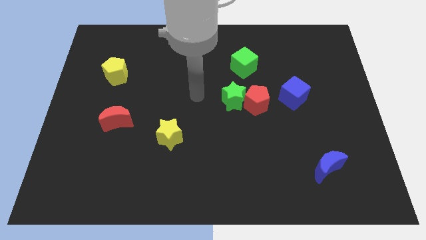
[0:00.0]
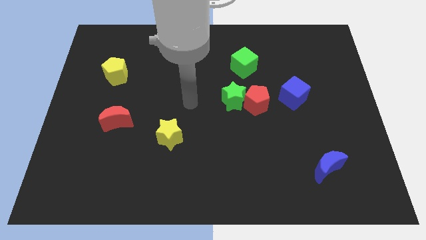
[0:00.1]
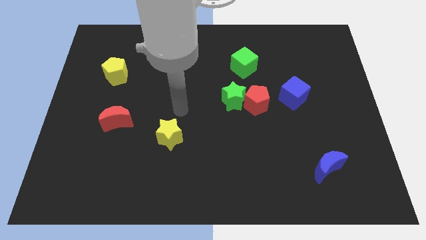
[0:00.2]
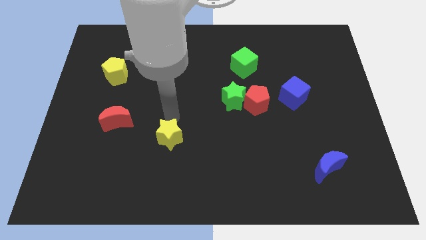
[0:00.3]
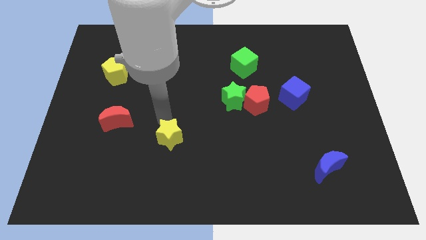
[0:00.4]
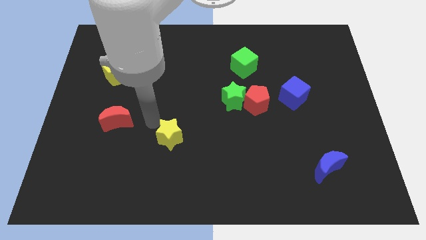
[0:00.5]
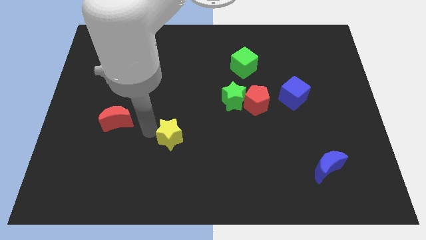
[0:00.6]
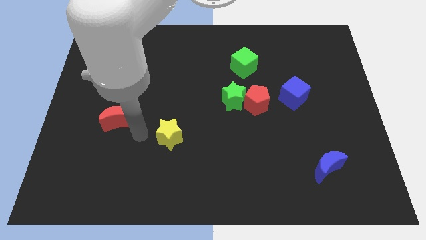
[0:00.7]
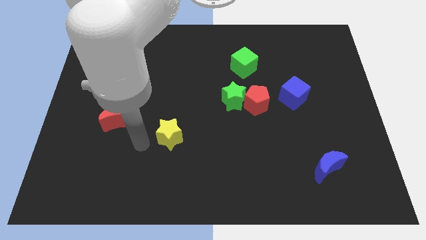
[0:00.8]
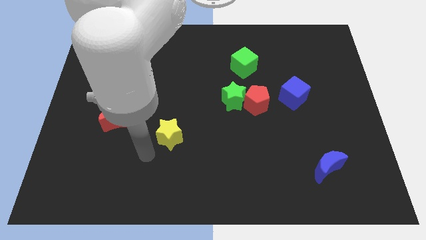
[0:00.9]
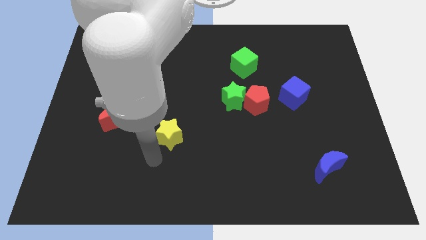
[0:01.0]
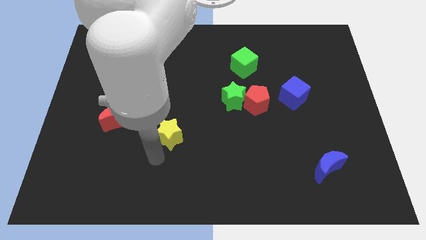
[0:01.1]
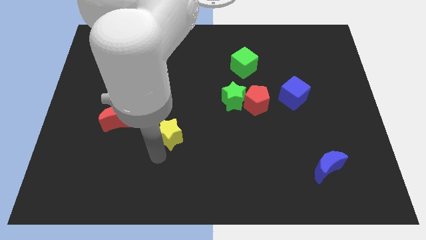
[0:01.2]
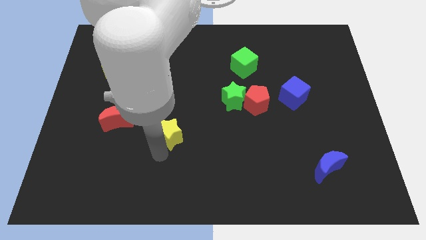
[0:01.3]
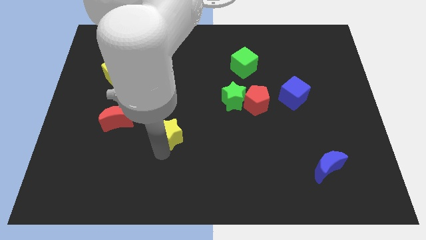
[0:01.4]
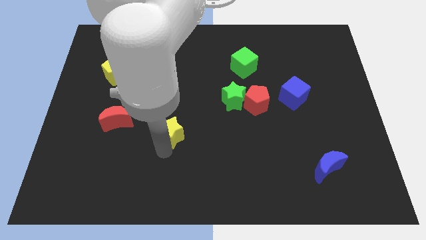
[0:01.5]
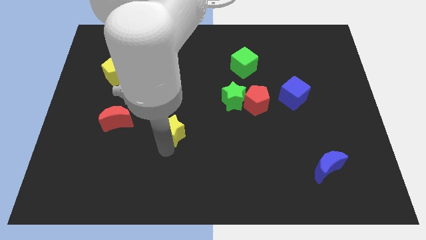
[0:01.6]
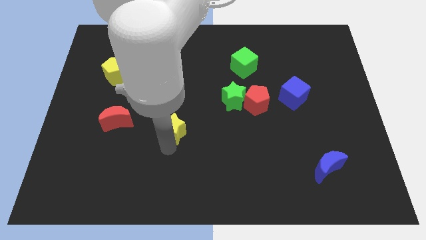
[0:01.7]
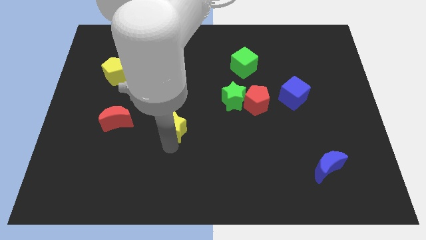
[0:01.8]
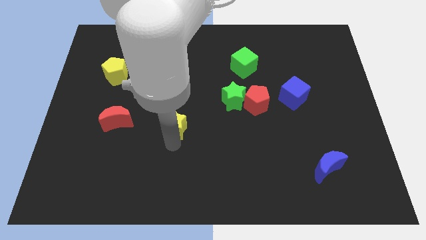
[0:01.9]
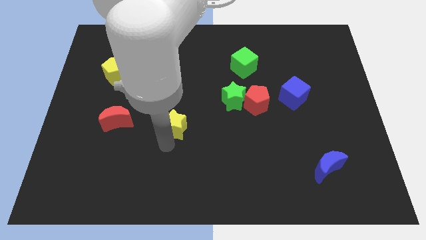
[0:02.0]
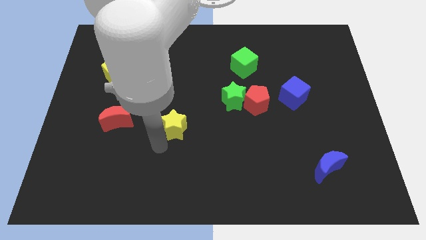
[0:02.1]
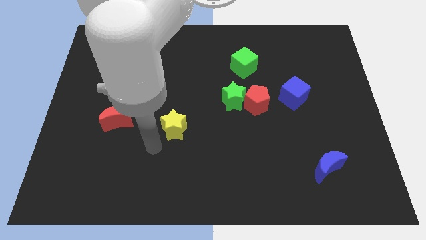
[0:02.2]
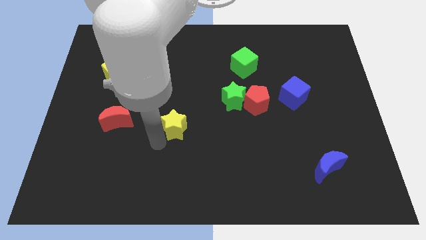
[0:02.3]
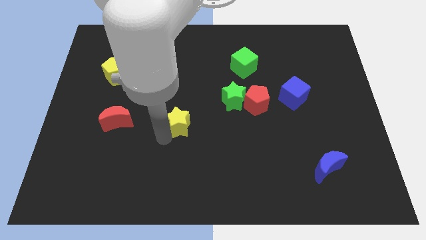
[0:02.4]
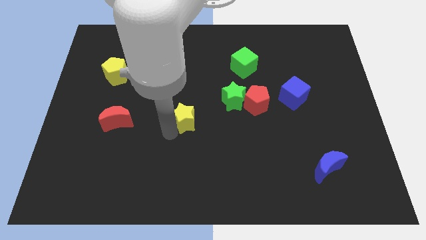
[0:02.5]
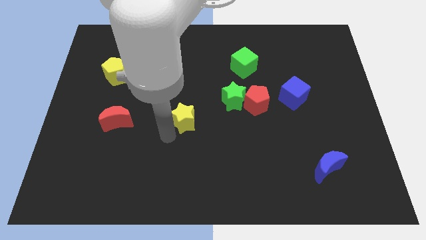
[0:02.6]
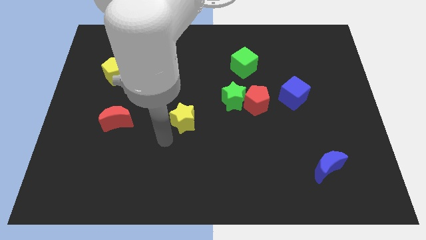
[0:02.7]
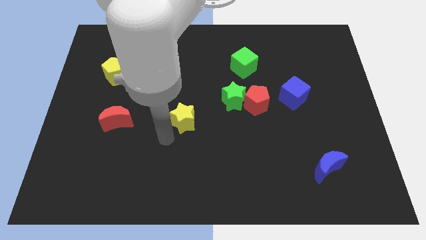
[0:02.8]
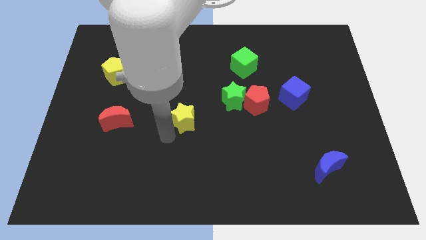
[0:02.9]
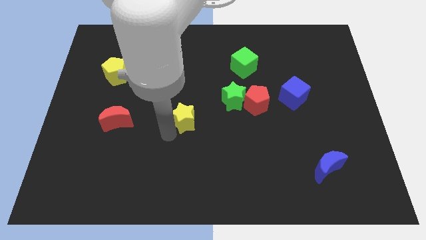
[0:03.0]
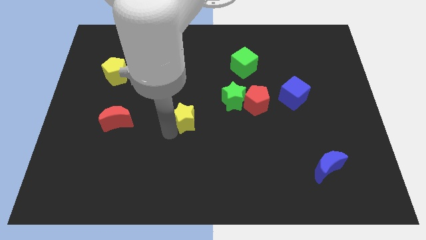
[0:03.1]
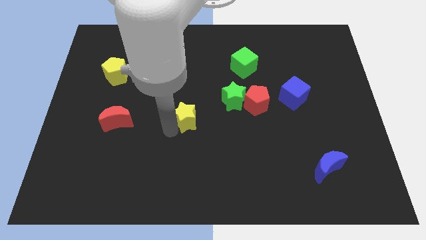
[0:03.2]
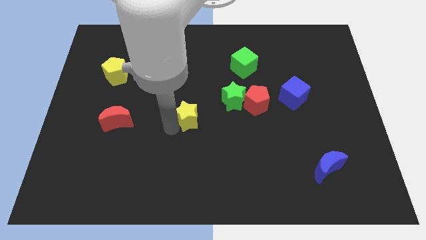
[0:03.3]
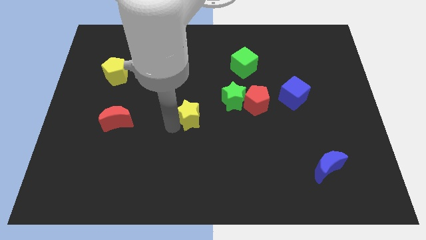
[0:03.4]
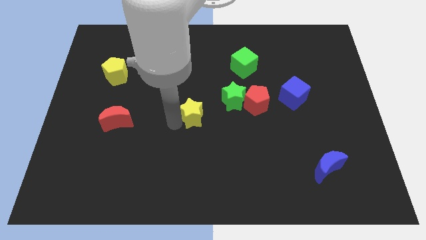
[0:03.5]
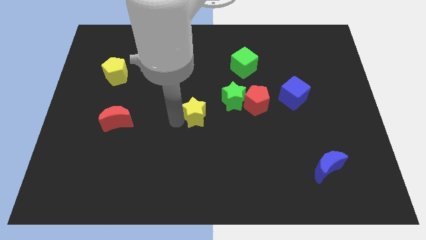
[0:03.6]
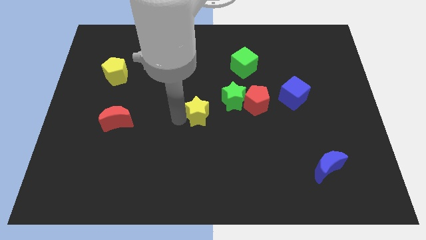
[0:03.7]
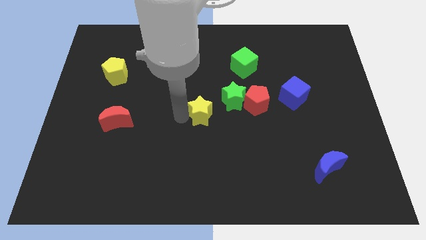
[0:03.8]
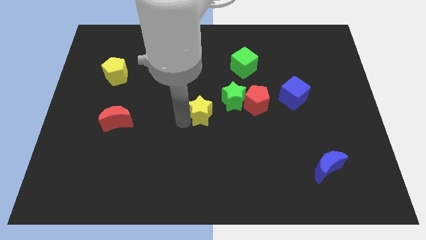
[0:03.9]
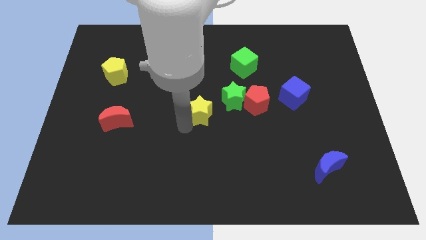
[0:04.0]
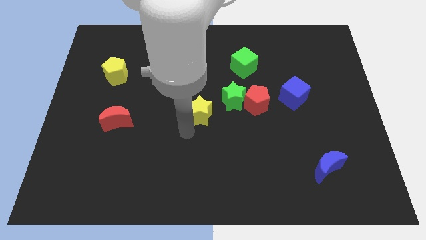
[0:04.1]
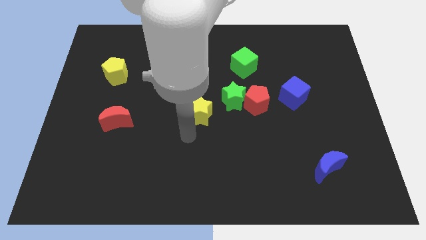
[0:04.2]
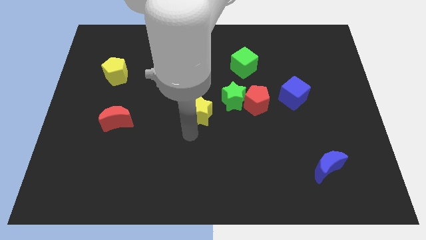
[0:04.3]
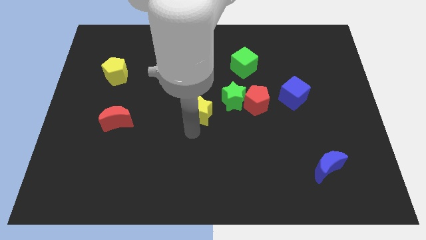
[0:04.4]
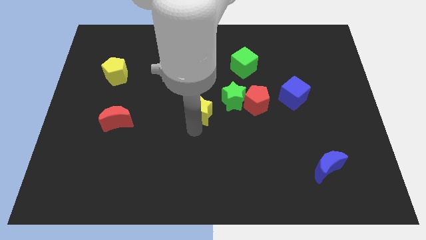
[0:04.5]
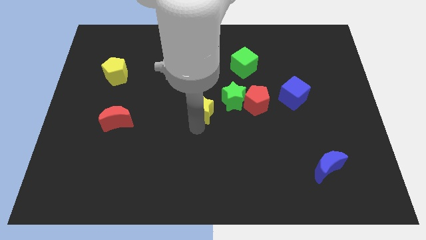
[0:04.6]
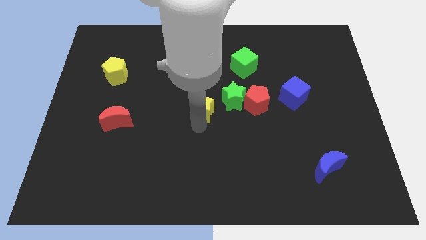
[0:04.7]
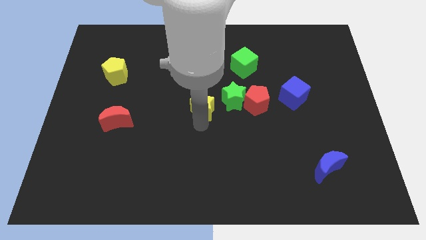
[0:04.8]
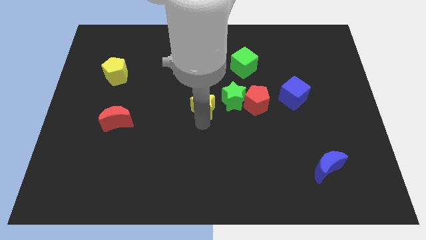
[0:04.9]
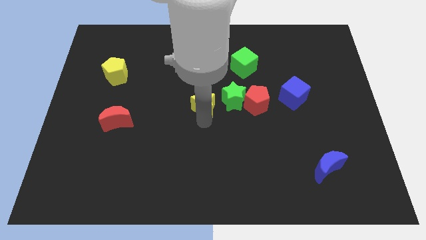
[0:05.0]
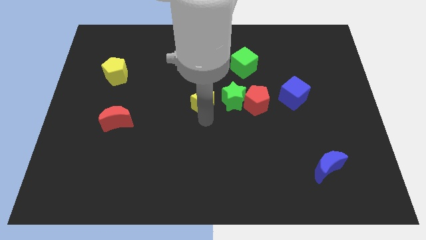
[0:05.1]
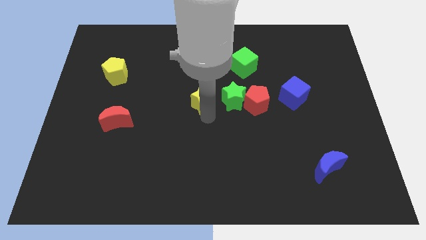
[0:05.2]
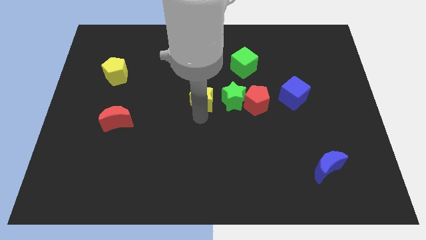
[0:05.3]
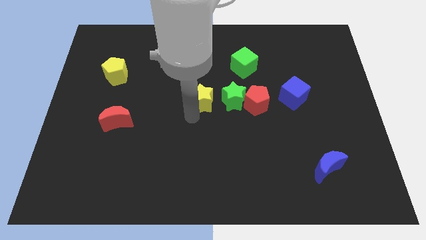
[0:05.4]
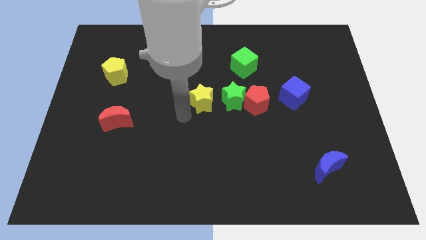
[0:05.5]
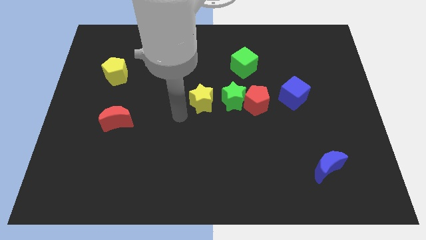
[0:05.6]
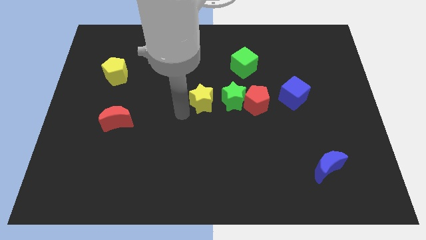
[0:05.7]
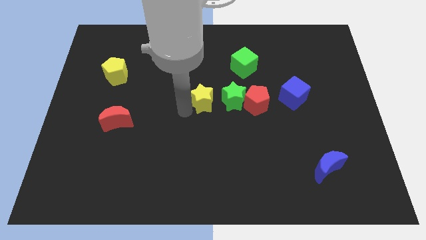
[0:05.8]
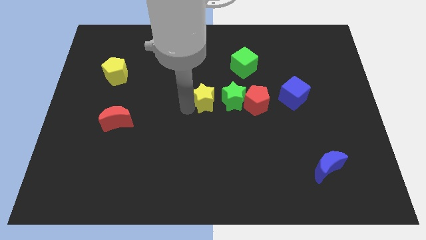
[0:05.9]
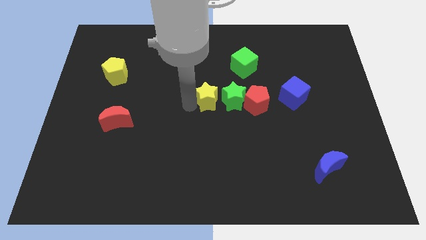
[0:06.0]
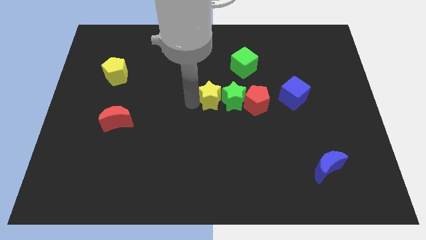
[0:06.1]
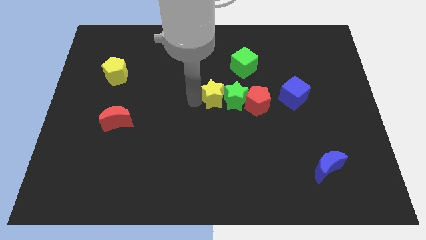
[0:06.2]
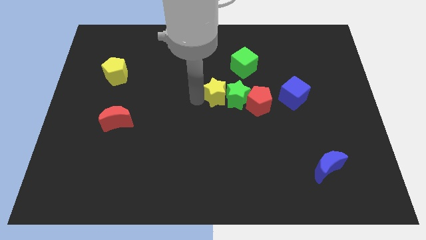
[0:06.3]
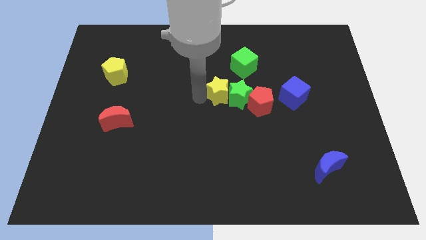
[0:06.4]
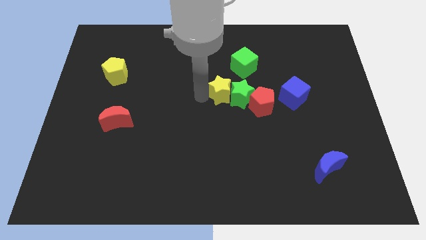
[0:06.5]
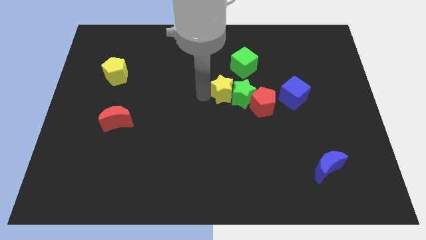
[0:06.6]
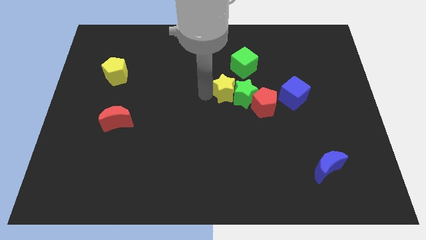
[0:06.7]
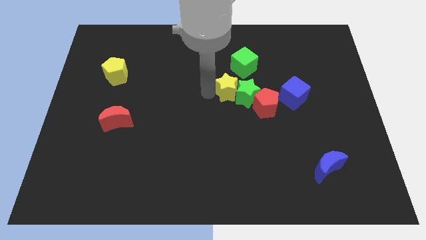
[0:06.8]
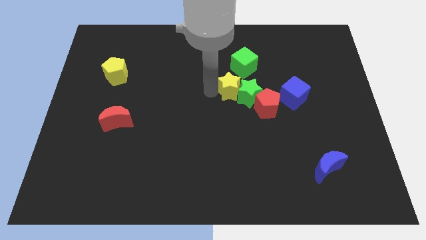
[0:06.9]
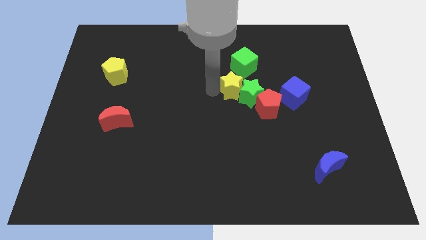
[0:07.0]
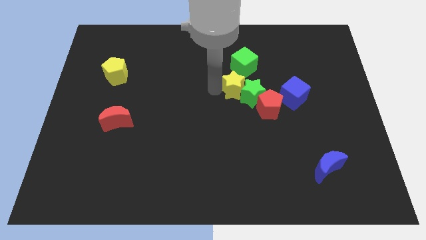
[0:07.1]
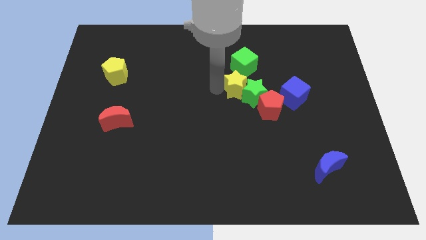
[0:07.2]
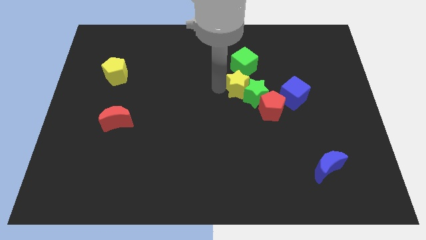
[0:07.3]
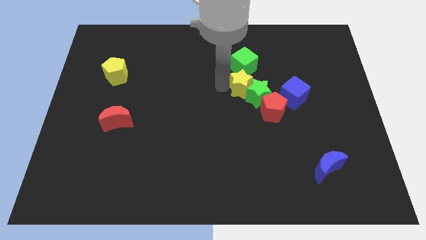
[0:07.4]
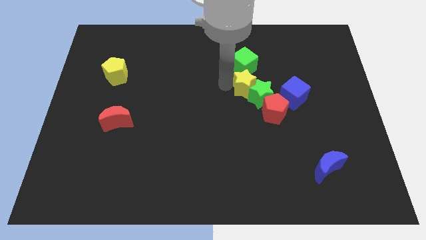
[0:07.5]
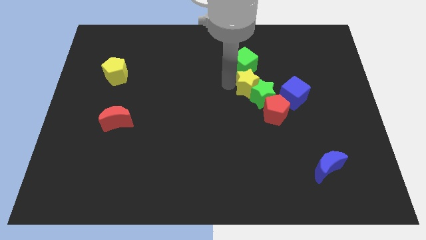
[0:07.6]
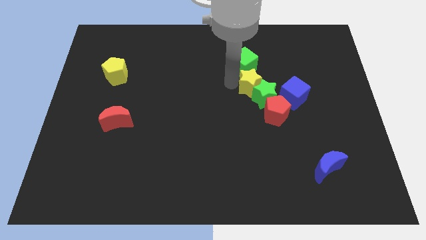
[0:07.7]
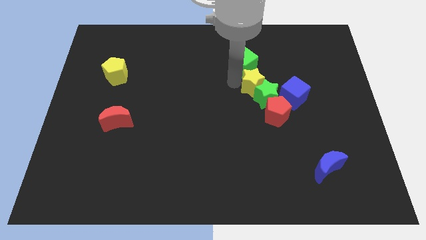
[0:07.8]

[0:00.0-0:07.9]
put the yellow star to the top left side of the blue cube
